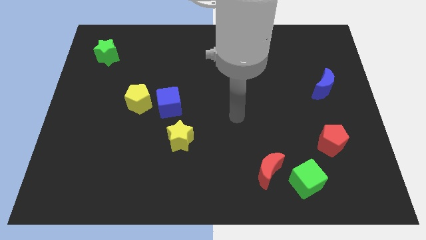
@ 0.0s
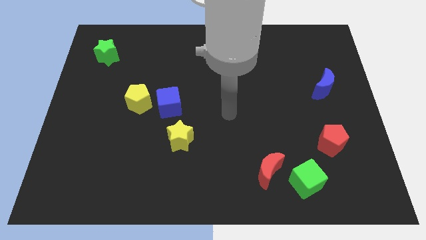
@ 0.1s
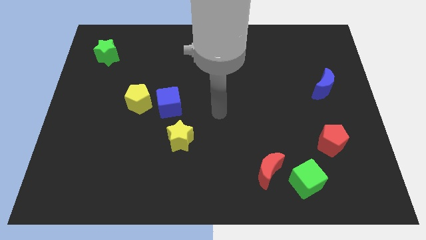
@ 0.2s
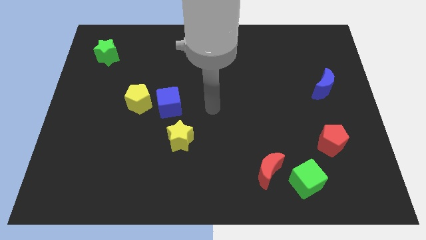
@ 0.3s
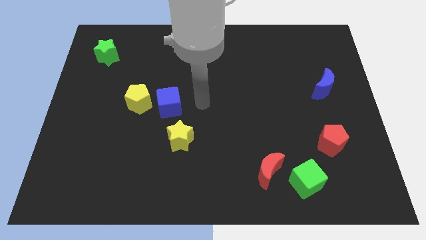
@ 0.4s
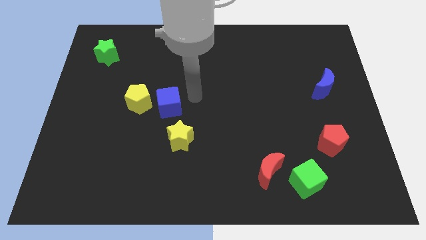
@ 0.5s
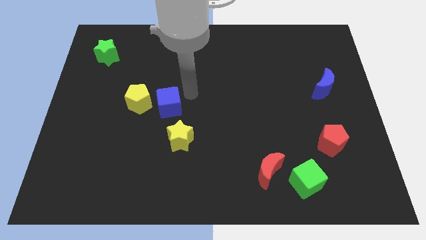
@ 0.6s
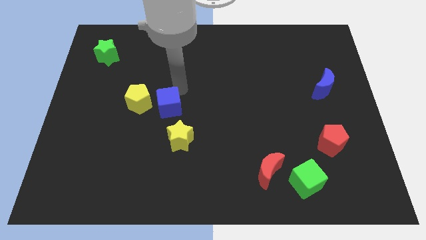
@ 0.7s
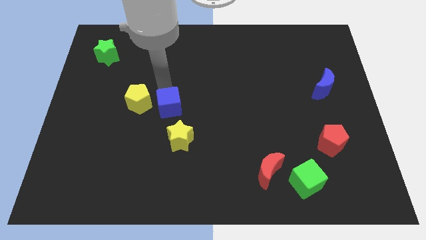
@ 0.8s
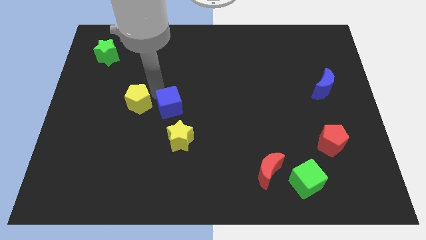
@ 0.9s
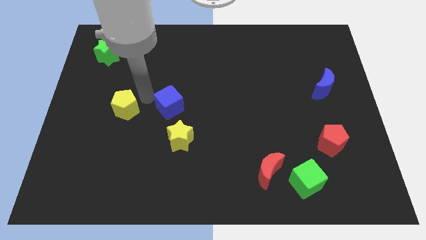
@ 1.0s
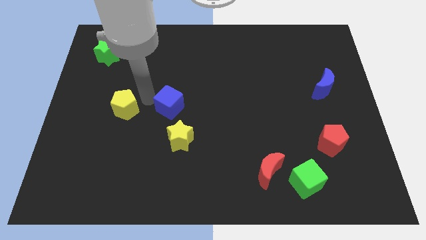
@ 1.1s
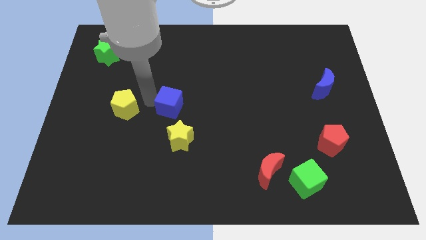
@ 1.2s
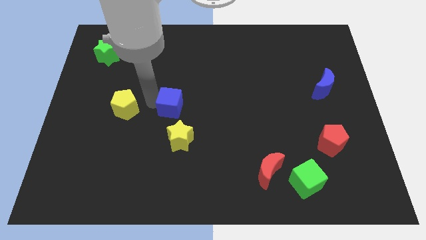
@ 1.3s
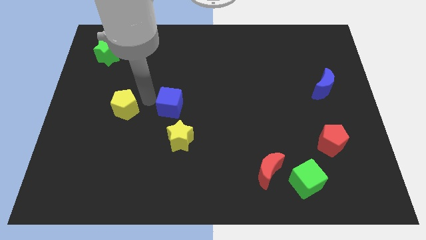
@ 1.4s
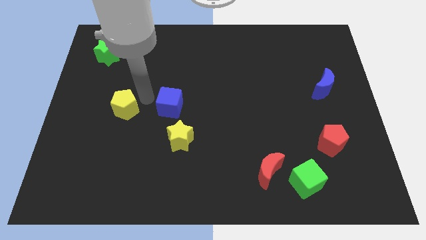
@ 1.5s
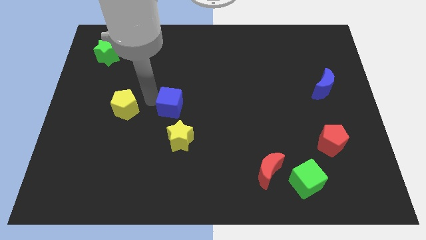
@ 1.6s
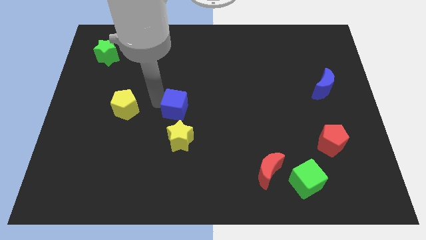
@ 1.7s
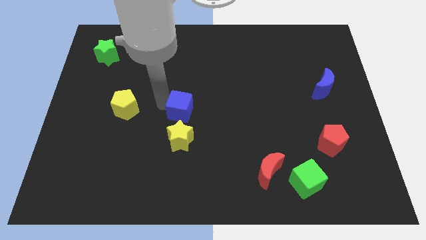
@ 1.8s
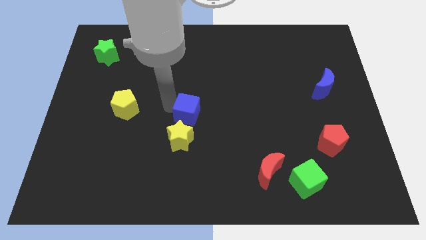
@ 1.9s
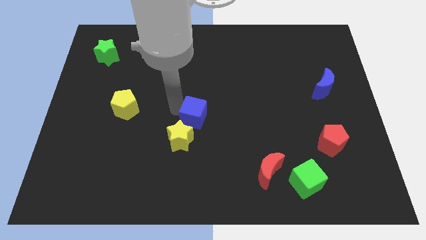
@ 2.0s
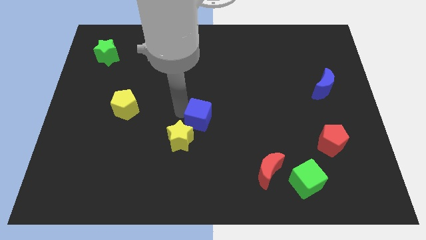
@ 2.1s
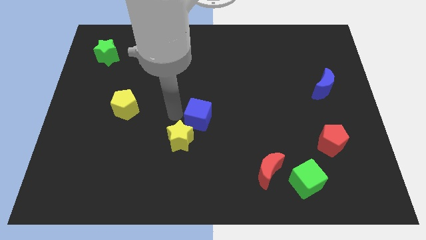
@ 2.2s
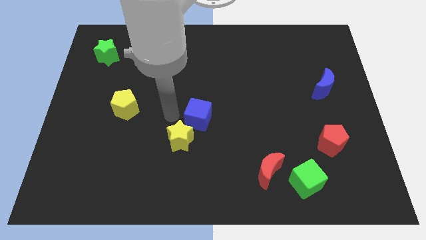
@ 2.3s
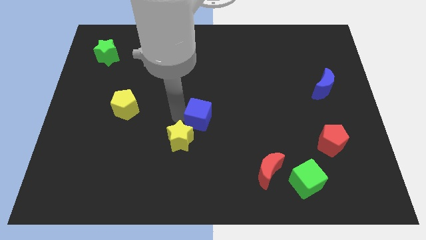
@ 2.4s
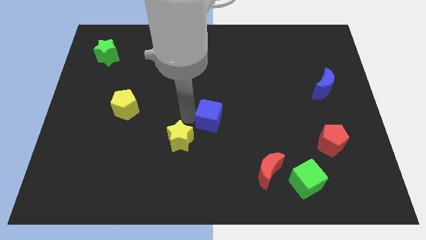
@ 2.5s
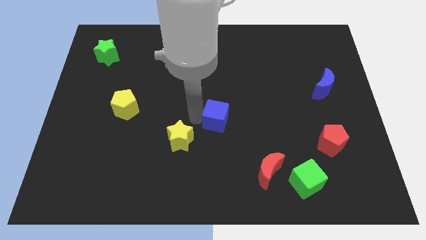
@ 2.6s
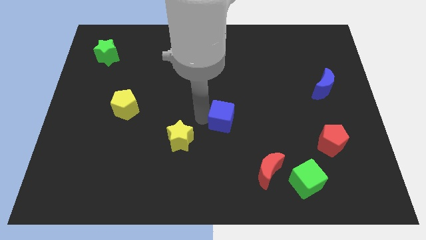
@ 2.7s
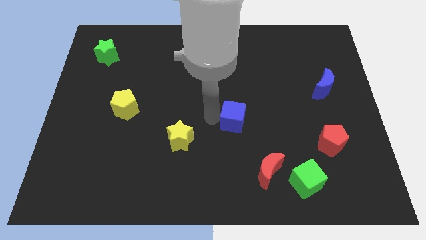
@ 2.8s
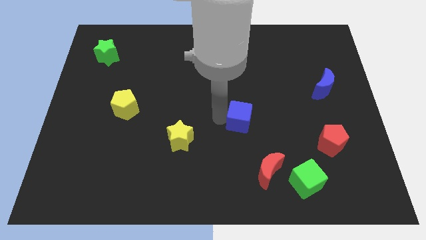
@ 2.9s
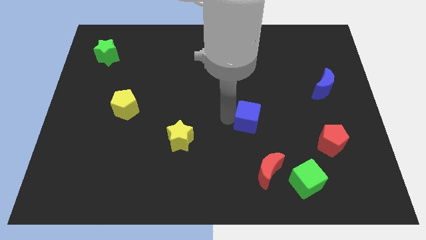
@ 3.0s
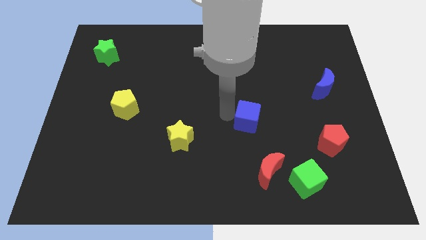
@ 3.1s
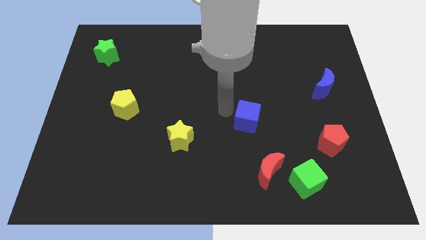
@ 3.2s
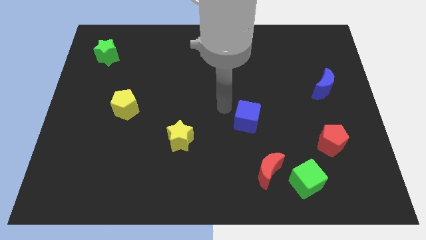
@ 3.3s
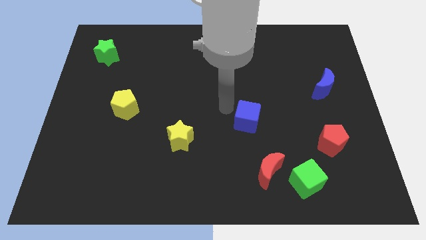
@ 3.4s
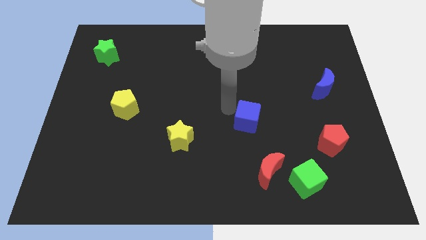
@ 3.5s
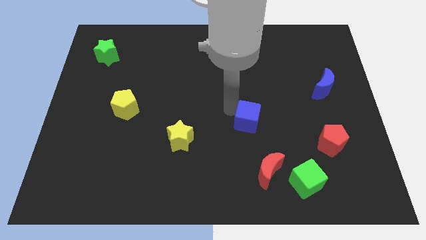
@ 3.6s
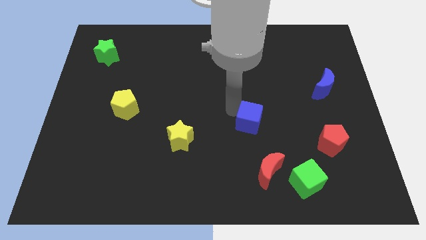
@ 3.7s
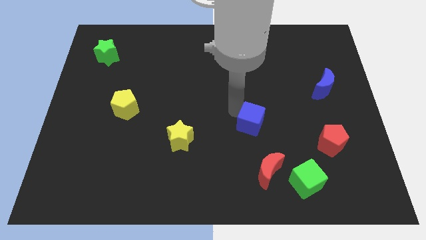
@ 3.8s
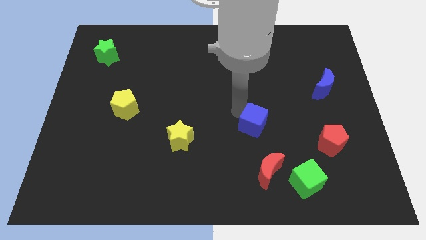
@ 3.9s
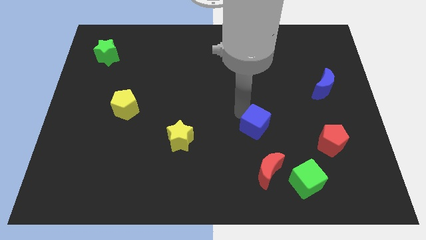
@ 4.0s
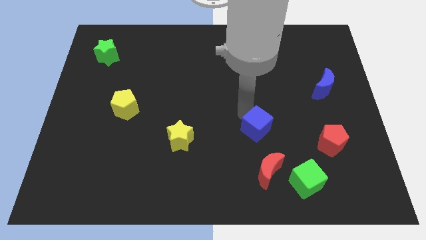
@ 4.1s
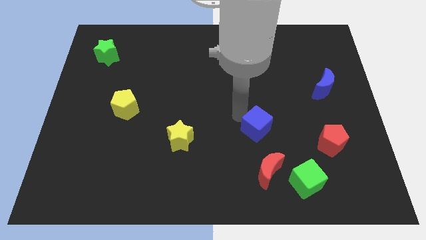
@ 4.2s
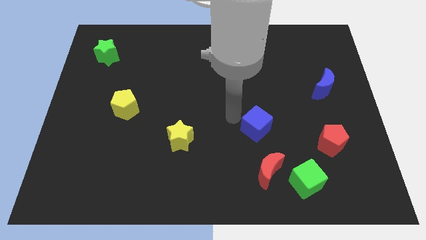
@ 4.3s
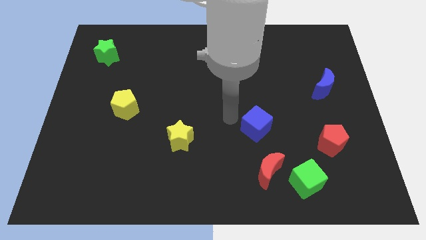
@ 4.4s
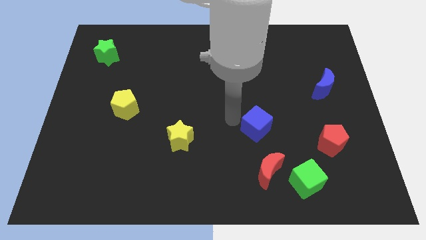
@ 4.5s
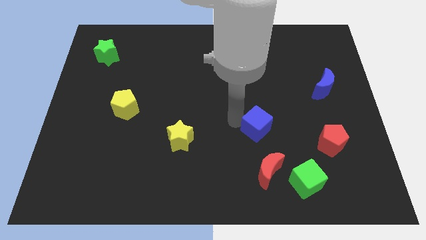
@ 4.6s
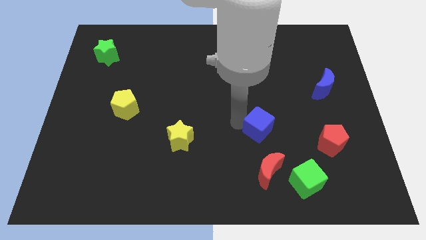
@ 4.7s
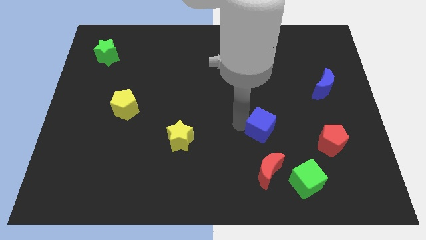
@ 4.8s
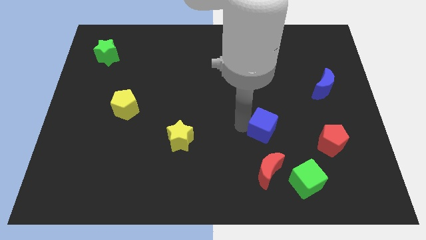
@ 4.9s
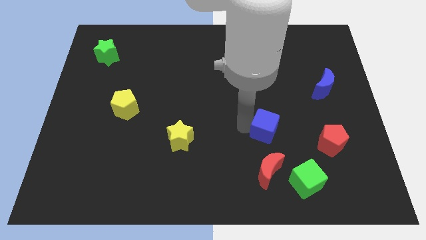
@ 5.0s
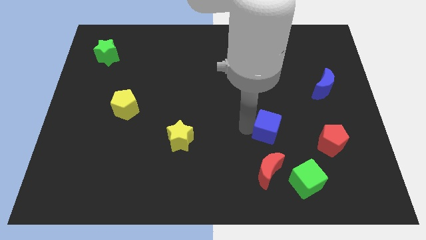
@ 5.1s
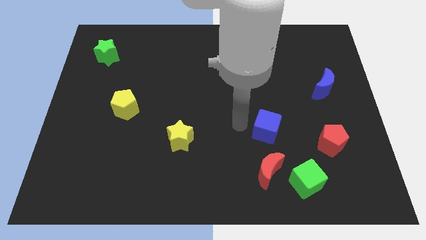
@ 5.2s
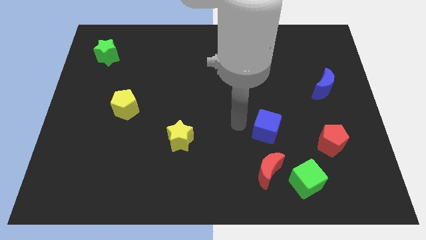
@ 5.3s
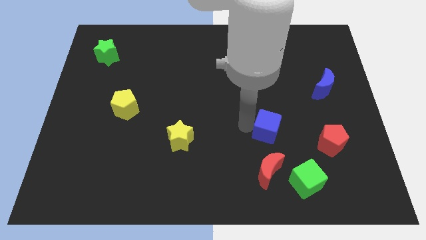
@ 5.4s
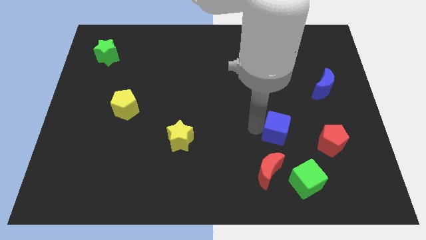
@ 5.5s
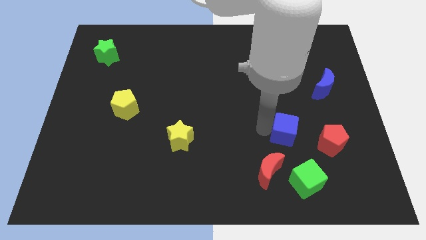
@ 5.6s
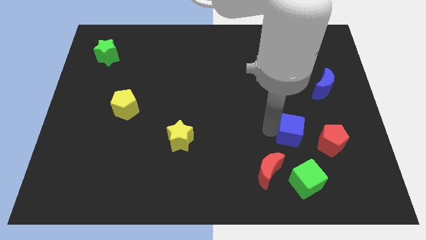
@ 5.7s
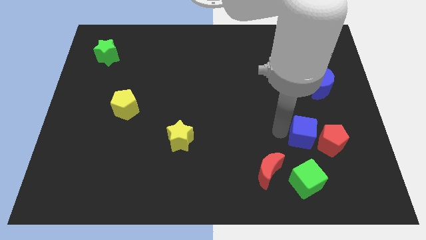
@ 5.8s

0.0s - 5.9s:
push the blue cube next to the red pentagon

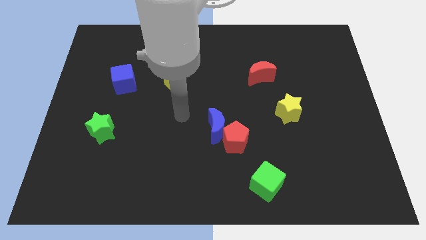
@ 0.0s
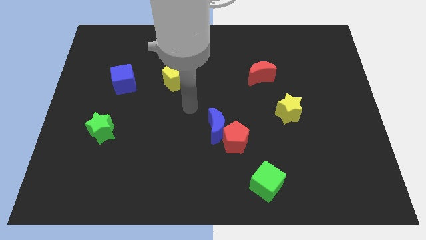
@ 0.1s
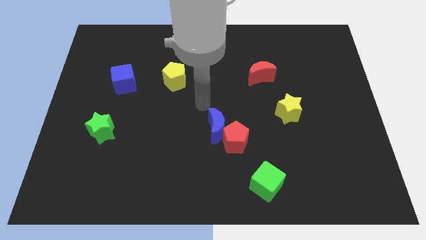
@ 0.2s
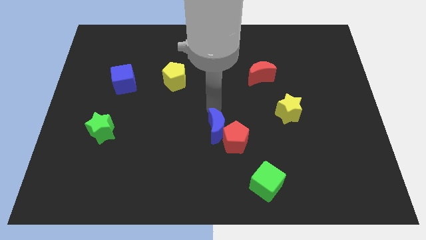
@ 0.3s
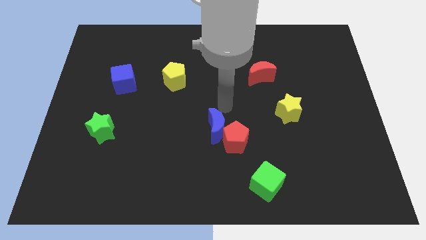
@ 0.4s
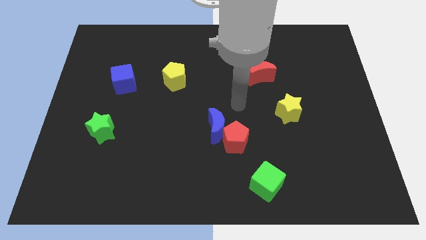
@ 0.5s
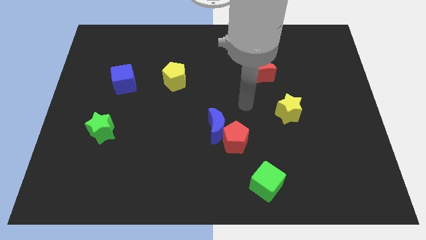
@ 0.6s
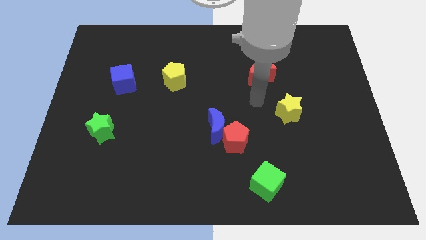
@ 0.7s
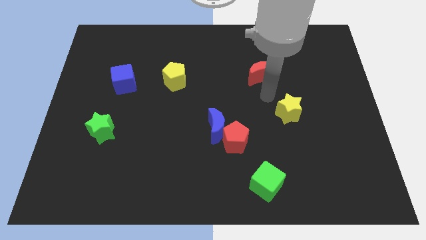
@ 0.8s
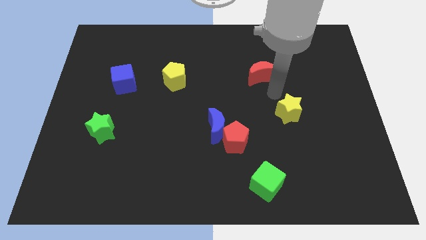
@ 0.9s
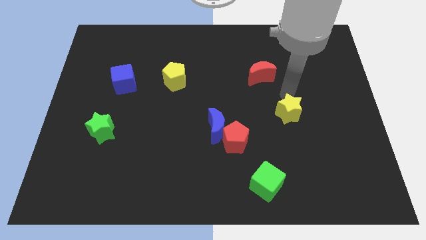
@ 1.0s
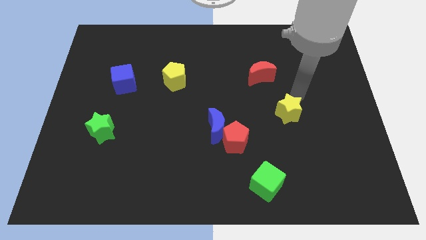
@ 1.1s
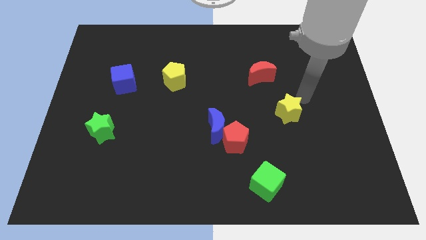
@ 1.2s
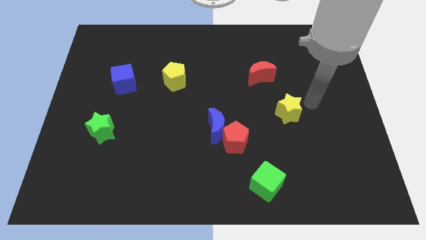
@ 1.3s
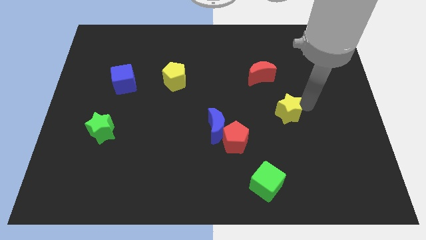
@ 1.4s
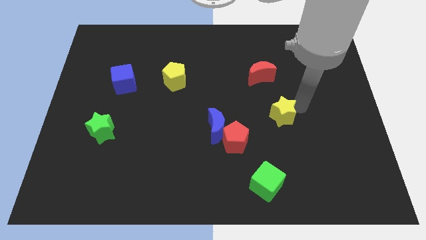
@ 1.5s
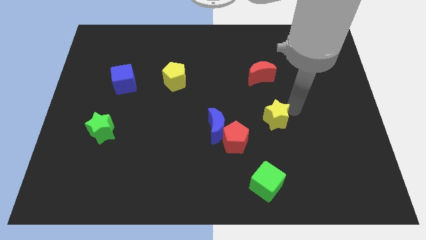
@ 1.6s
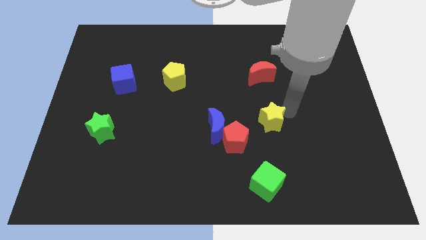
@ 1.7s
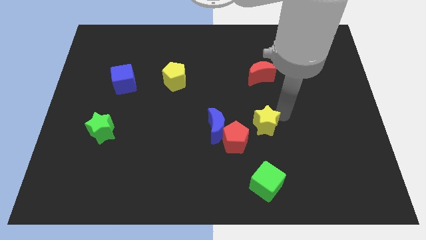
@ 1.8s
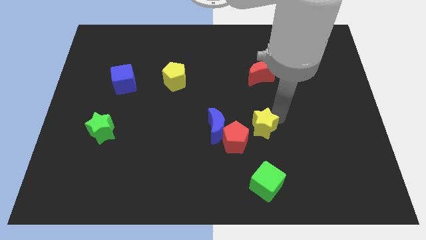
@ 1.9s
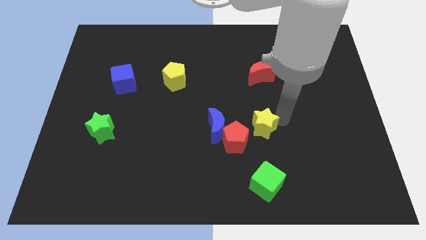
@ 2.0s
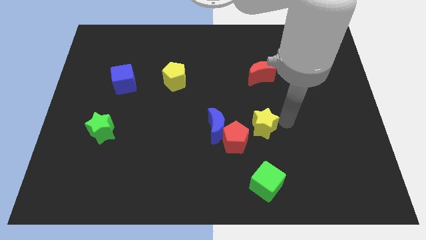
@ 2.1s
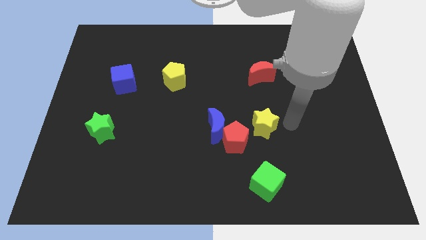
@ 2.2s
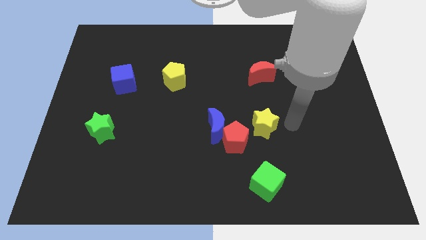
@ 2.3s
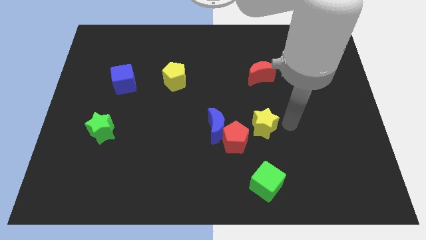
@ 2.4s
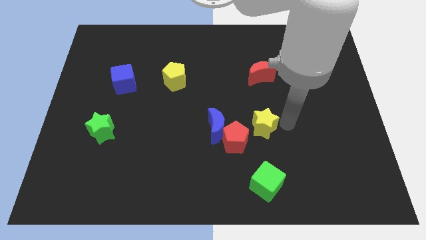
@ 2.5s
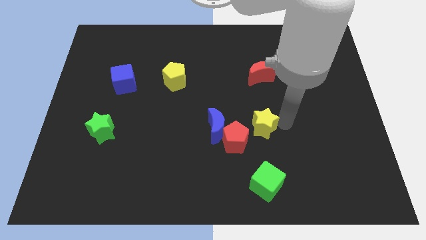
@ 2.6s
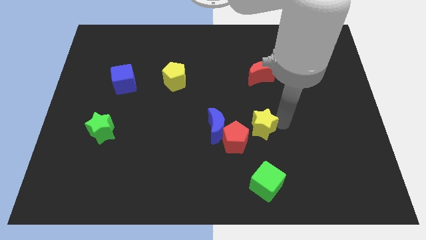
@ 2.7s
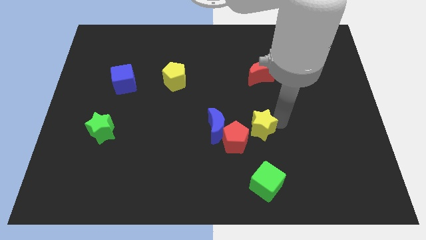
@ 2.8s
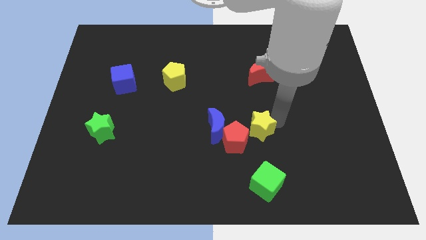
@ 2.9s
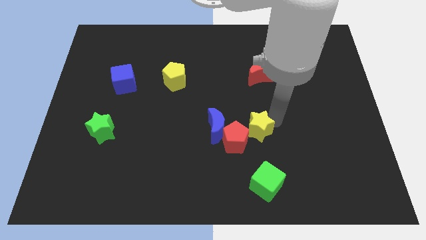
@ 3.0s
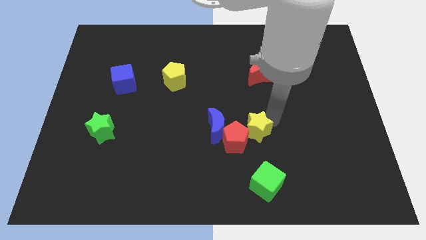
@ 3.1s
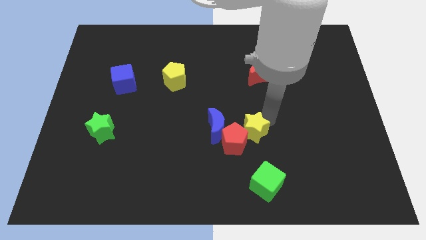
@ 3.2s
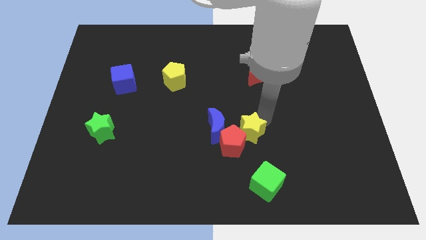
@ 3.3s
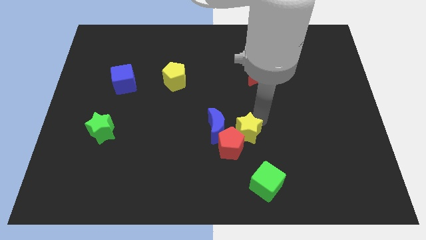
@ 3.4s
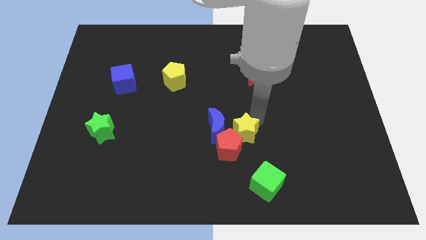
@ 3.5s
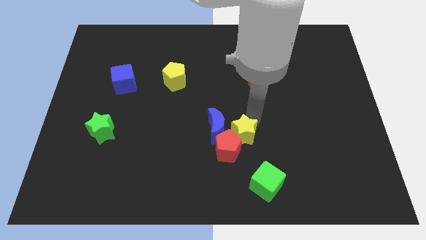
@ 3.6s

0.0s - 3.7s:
move the yellow star towards the blue moon
